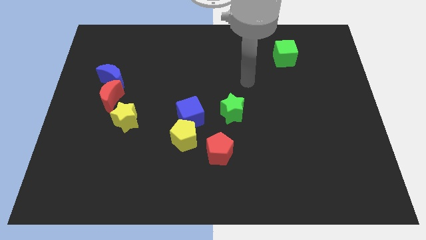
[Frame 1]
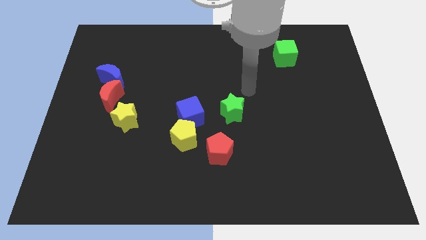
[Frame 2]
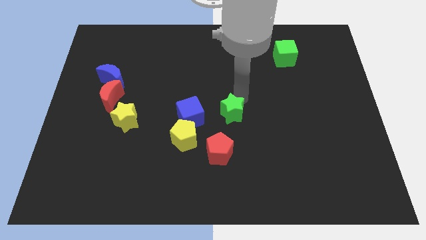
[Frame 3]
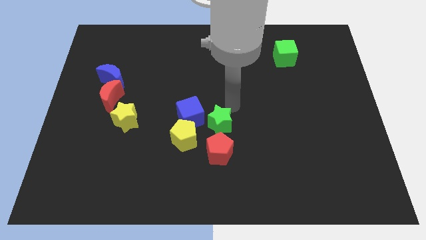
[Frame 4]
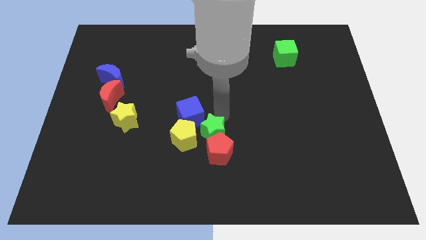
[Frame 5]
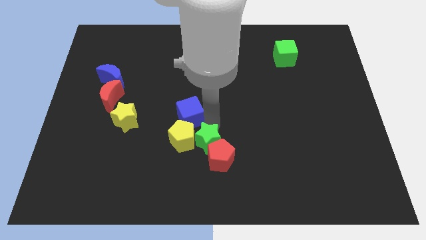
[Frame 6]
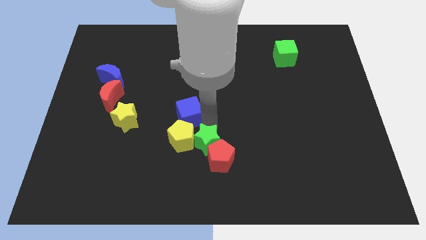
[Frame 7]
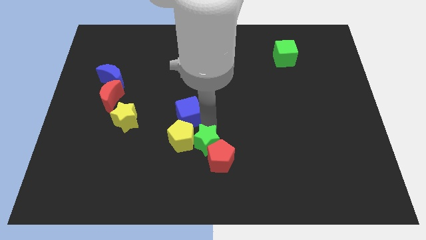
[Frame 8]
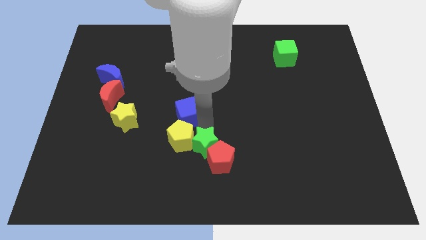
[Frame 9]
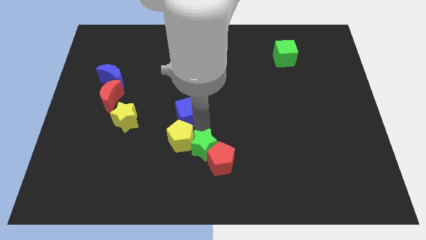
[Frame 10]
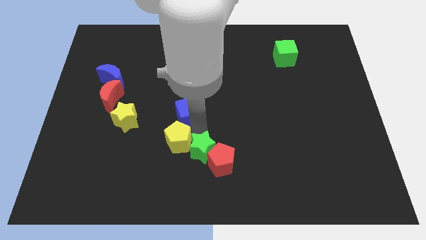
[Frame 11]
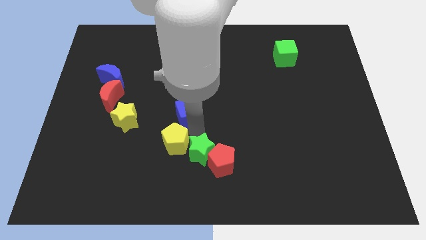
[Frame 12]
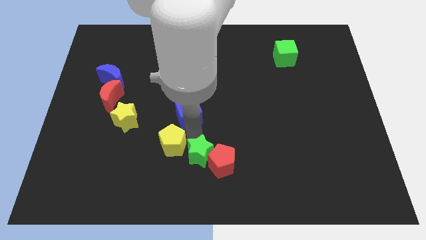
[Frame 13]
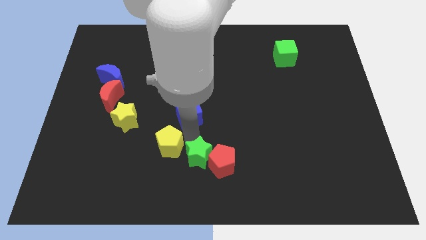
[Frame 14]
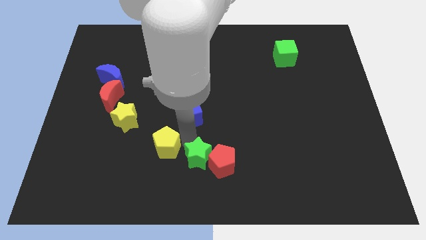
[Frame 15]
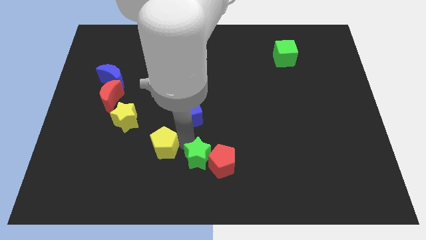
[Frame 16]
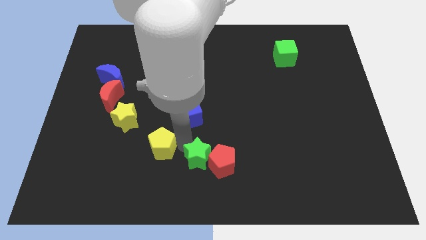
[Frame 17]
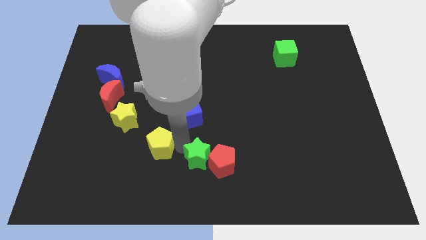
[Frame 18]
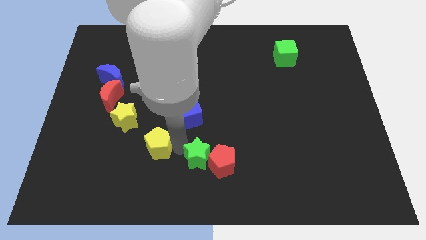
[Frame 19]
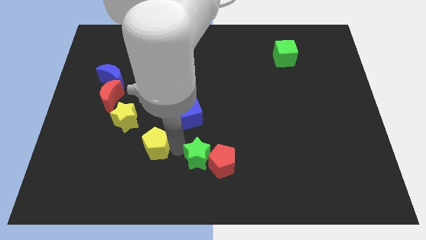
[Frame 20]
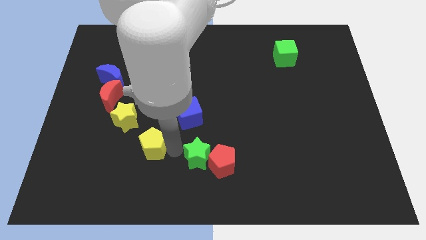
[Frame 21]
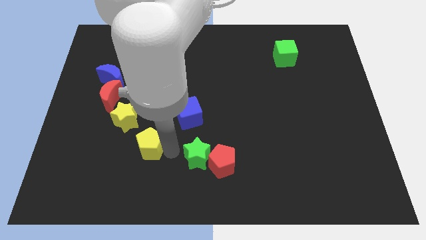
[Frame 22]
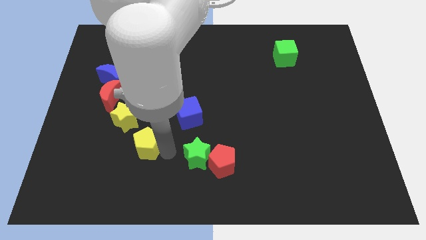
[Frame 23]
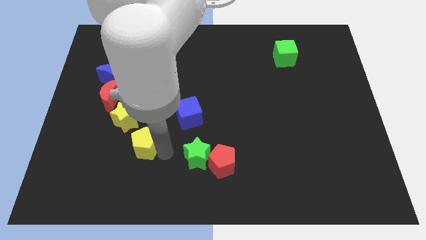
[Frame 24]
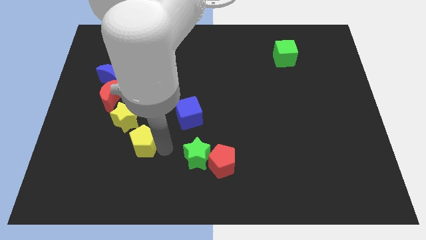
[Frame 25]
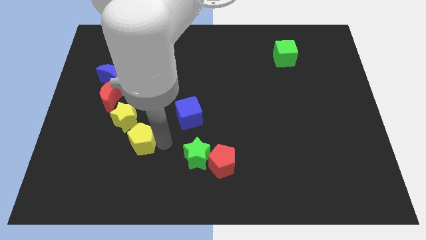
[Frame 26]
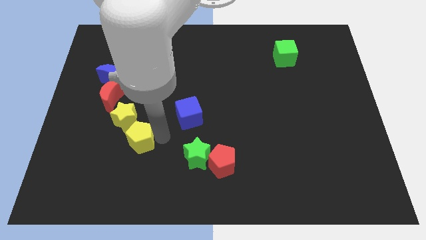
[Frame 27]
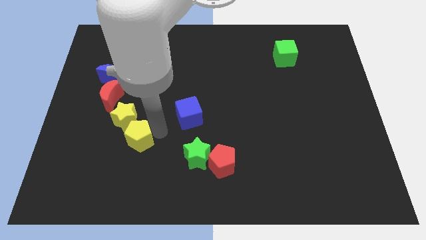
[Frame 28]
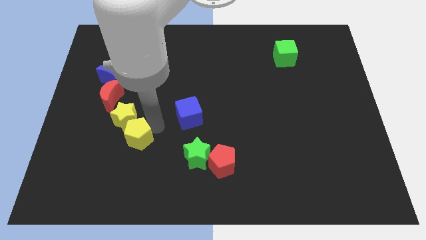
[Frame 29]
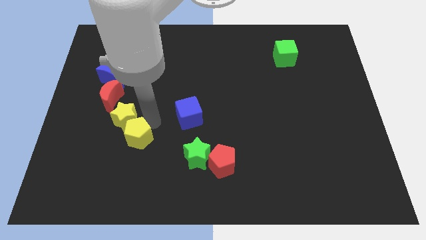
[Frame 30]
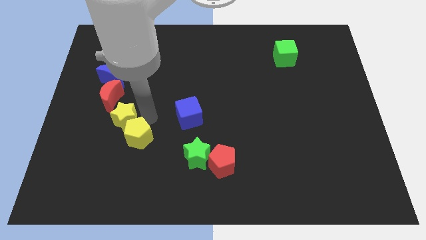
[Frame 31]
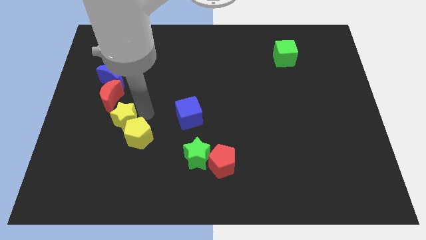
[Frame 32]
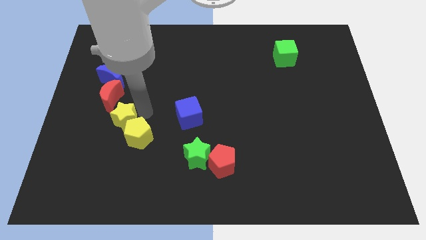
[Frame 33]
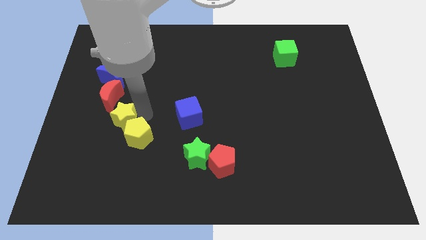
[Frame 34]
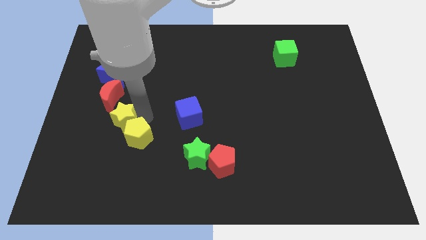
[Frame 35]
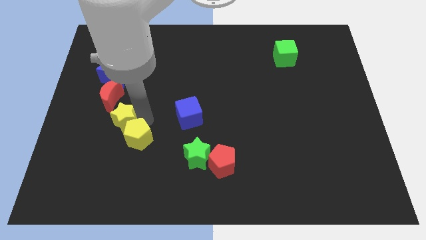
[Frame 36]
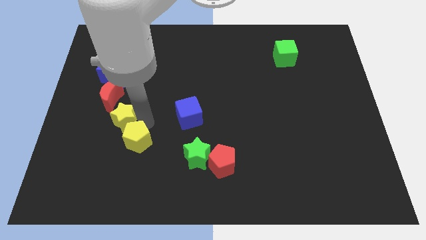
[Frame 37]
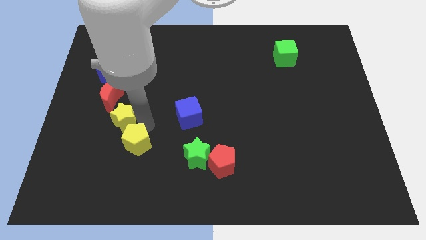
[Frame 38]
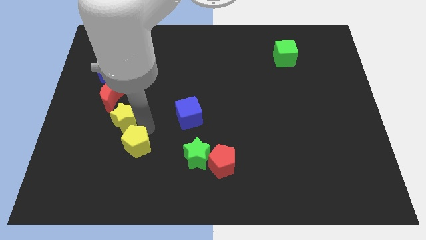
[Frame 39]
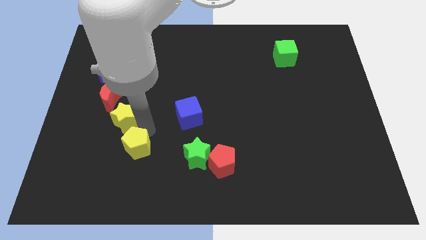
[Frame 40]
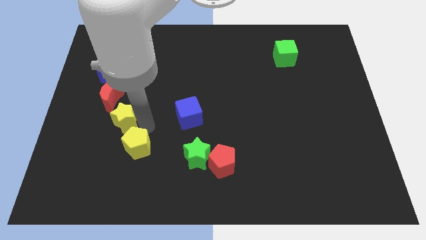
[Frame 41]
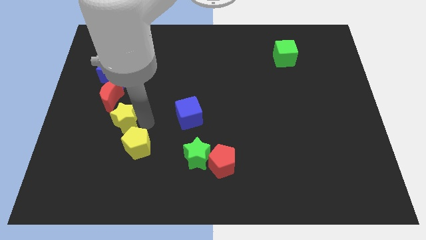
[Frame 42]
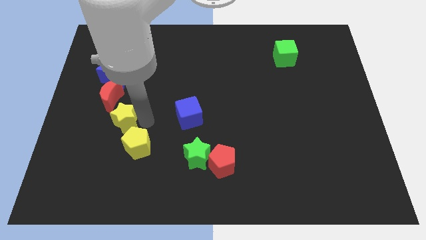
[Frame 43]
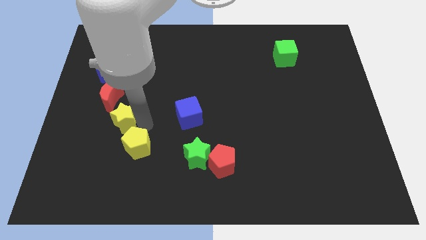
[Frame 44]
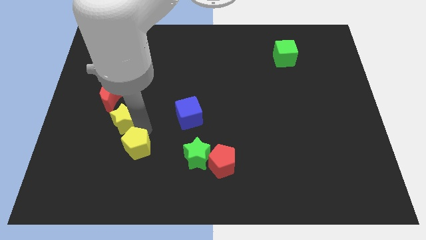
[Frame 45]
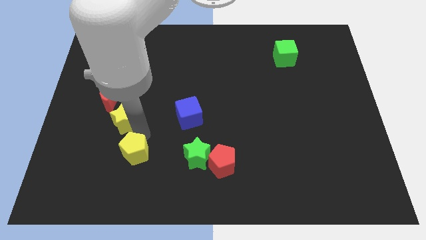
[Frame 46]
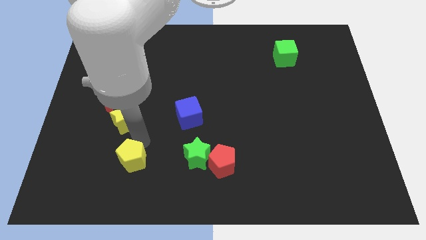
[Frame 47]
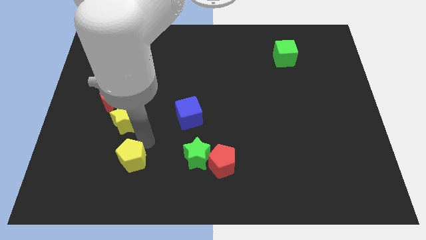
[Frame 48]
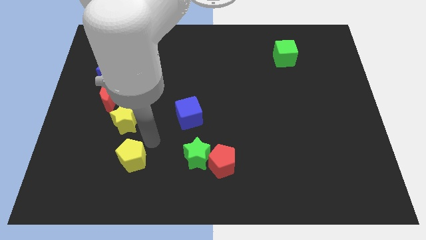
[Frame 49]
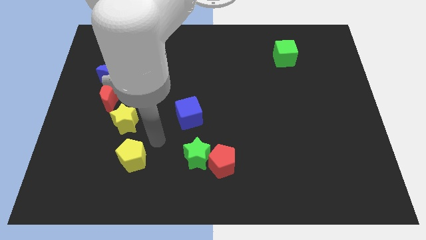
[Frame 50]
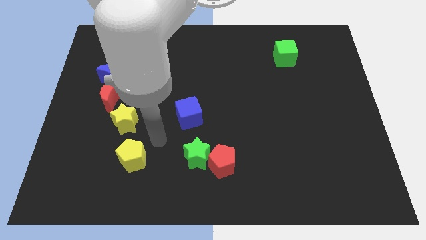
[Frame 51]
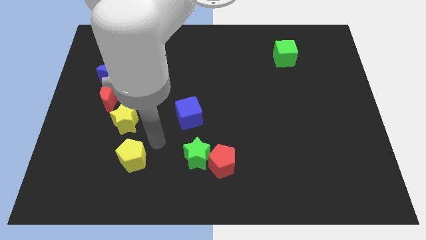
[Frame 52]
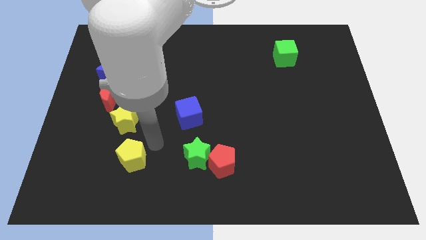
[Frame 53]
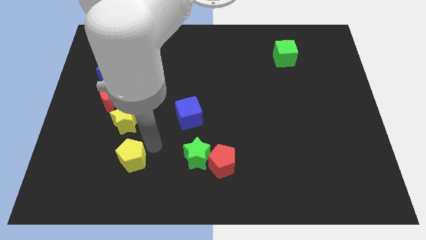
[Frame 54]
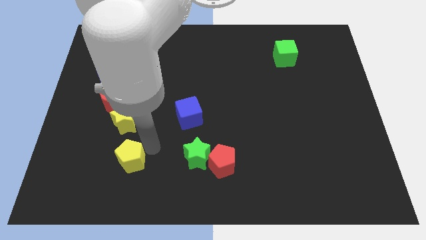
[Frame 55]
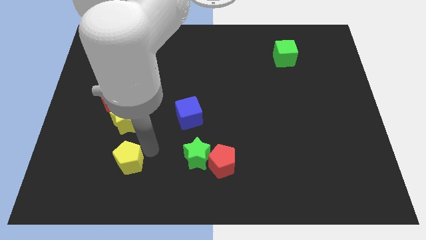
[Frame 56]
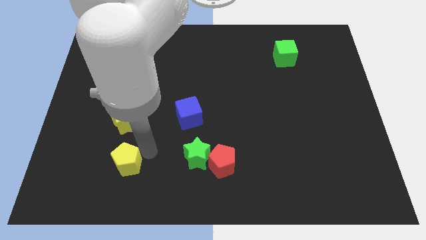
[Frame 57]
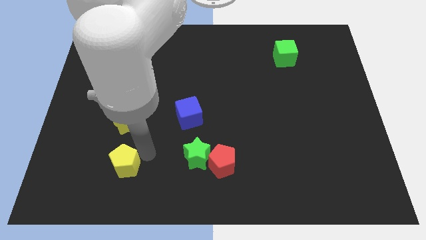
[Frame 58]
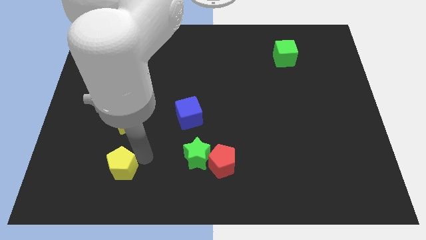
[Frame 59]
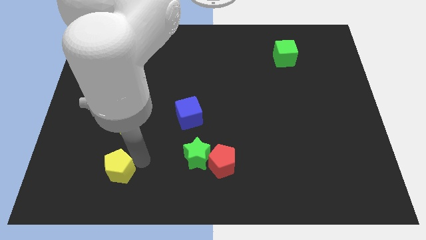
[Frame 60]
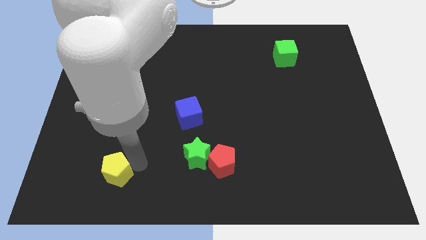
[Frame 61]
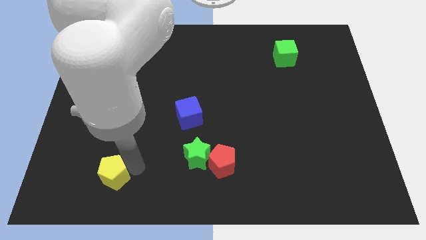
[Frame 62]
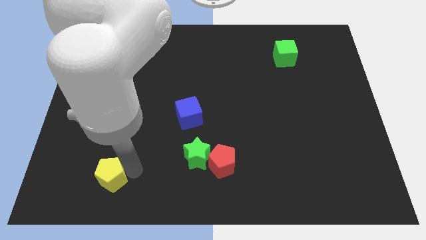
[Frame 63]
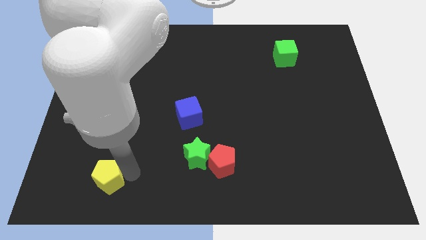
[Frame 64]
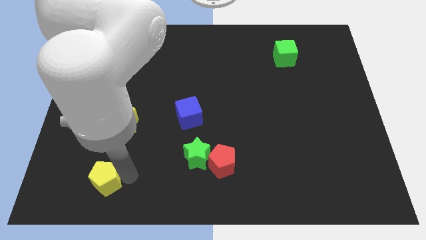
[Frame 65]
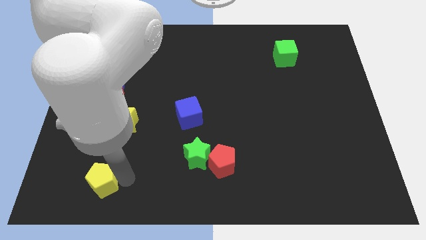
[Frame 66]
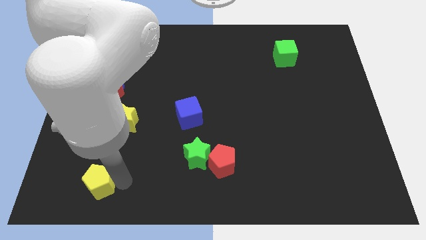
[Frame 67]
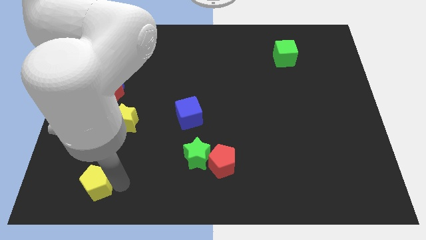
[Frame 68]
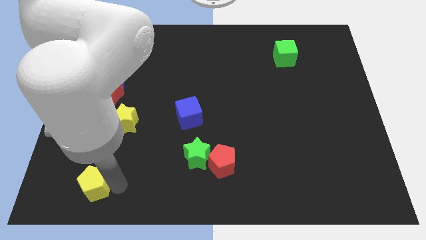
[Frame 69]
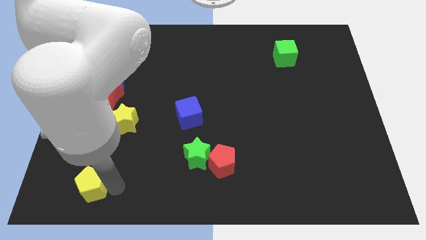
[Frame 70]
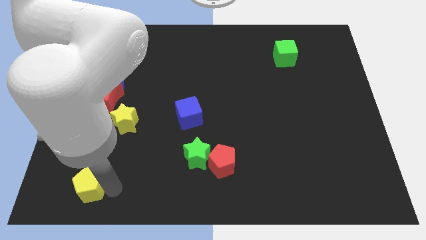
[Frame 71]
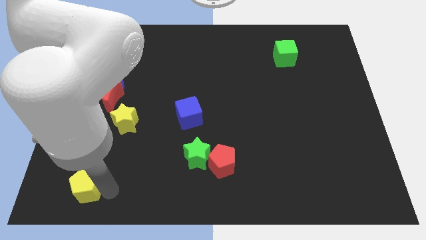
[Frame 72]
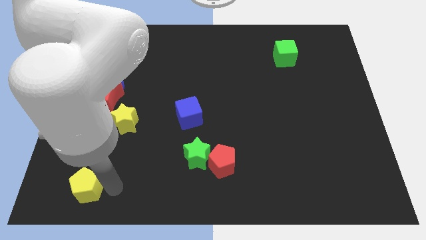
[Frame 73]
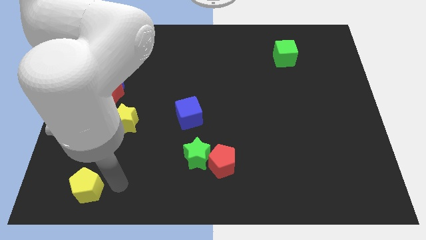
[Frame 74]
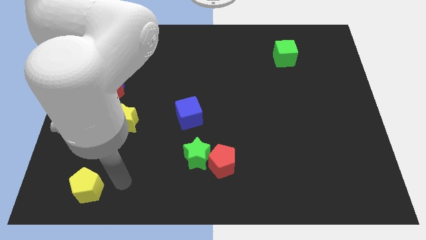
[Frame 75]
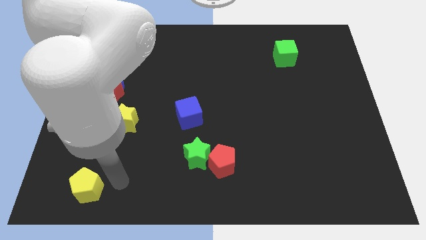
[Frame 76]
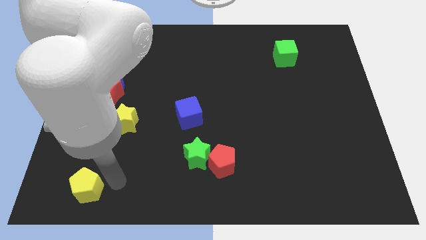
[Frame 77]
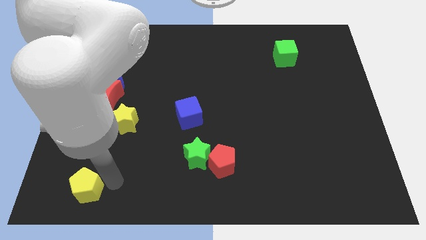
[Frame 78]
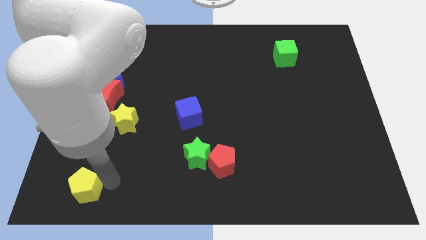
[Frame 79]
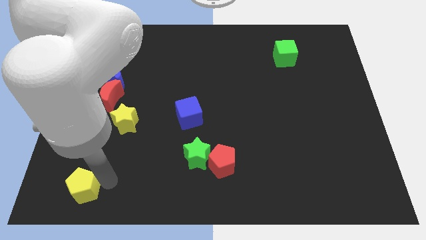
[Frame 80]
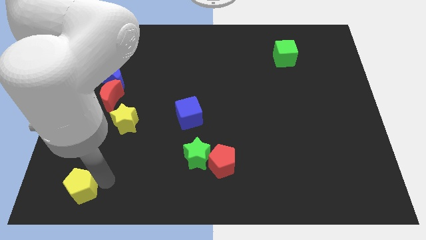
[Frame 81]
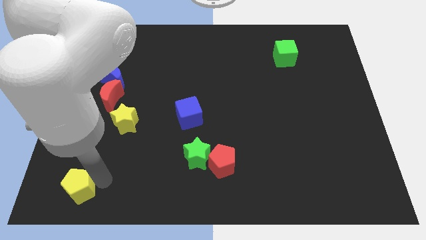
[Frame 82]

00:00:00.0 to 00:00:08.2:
slide the yellow pentagon to the bottom left of the board
